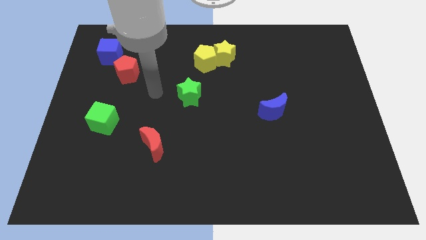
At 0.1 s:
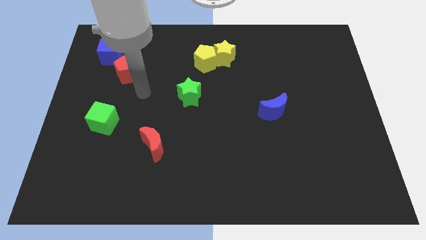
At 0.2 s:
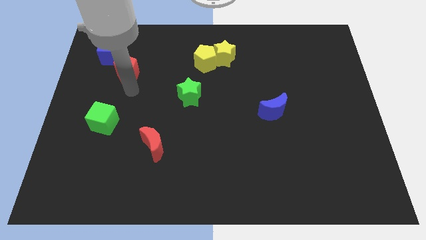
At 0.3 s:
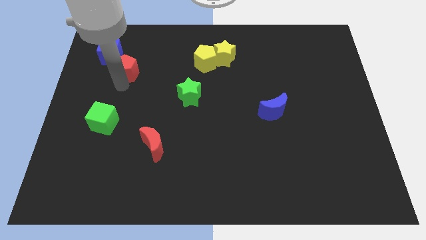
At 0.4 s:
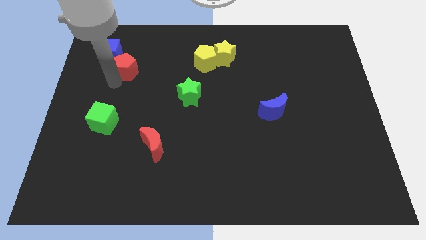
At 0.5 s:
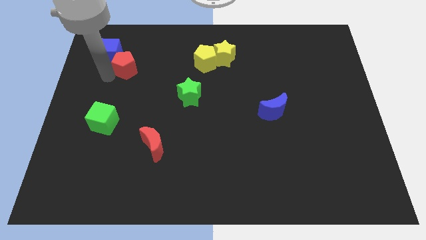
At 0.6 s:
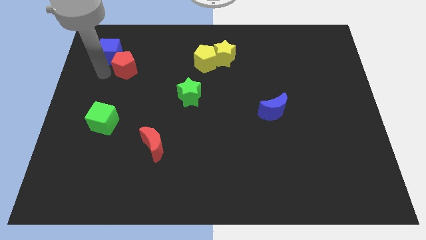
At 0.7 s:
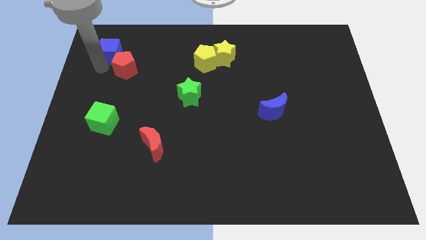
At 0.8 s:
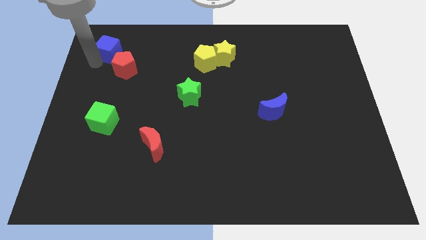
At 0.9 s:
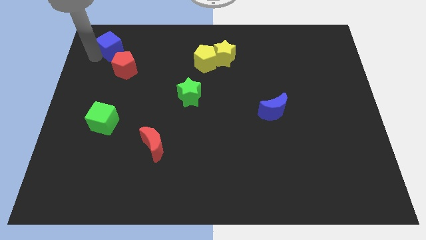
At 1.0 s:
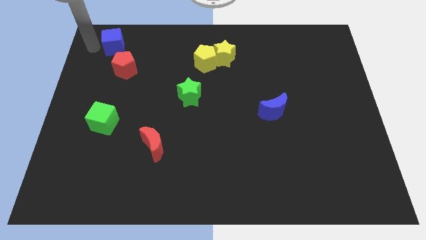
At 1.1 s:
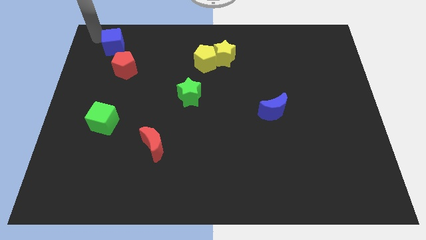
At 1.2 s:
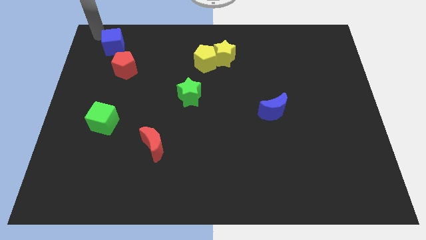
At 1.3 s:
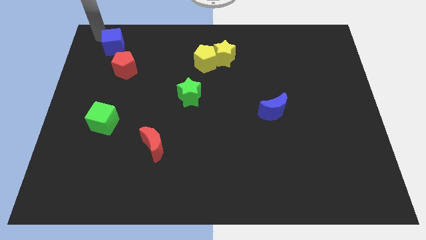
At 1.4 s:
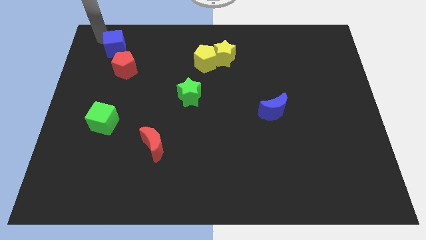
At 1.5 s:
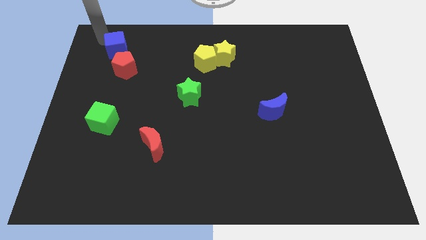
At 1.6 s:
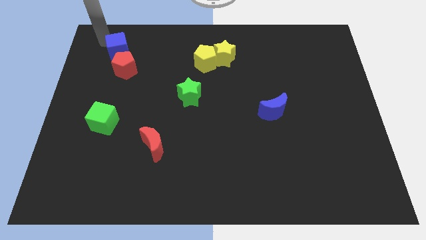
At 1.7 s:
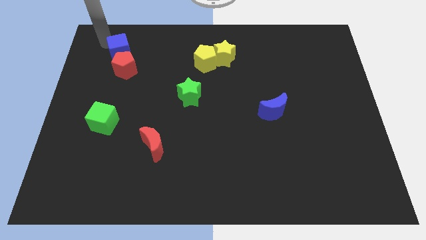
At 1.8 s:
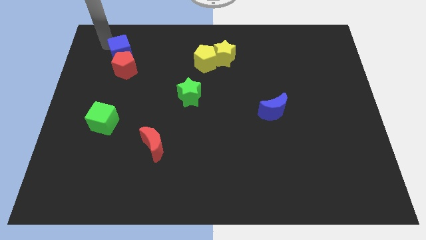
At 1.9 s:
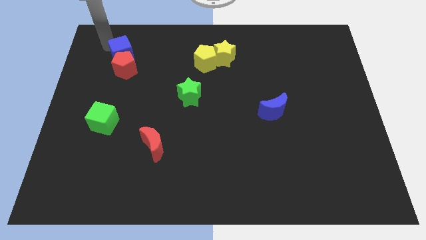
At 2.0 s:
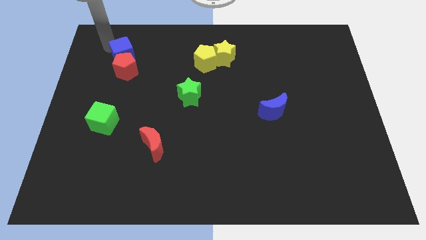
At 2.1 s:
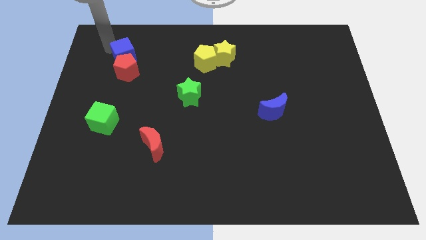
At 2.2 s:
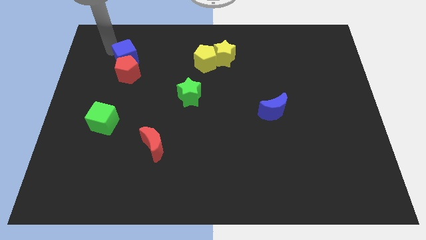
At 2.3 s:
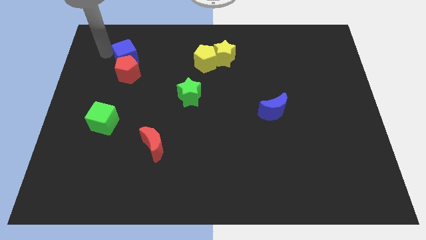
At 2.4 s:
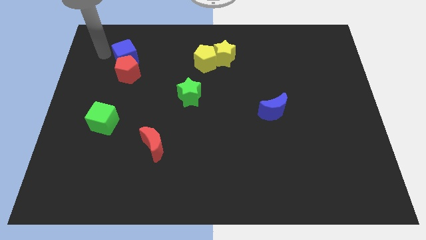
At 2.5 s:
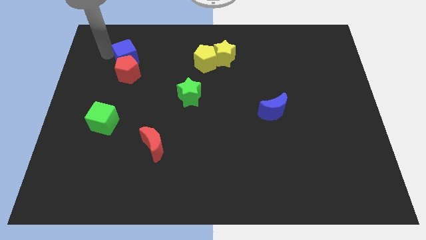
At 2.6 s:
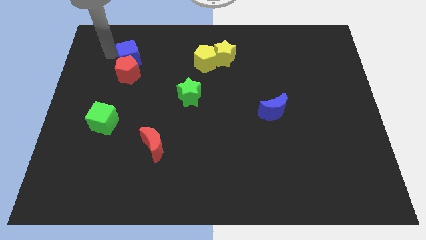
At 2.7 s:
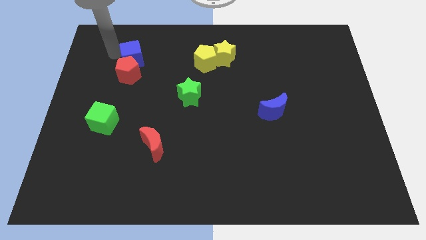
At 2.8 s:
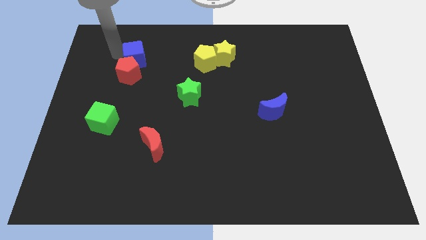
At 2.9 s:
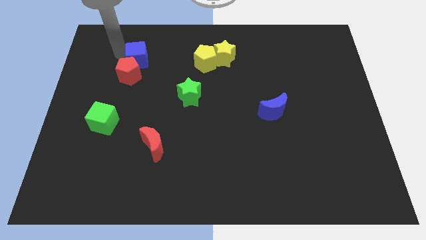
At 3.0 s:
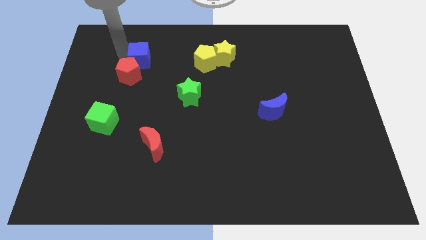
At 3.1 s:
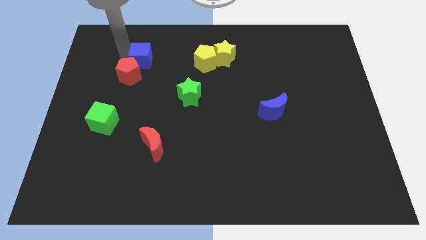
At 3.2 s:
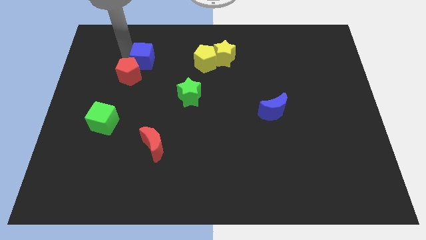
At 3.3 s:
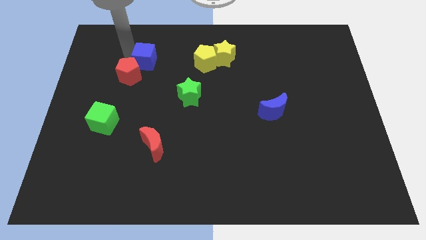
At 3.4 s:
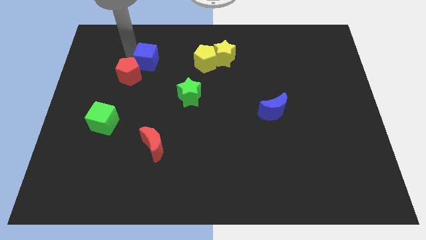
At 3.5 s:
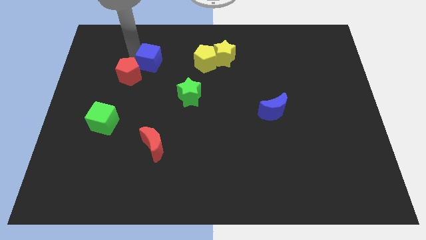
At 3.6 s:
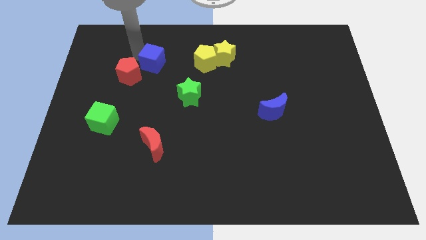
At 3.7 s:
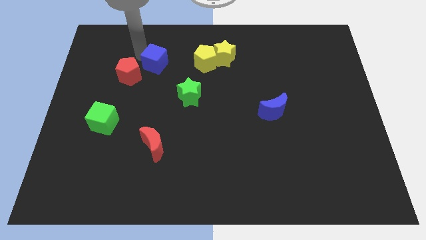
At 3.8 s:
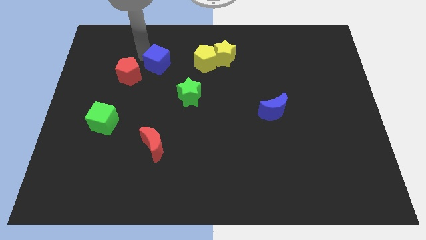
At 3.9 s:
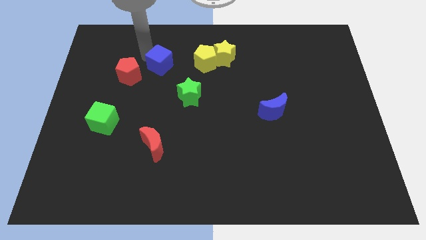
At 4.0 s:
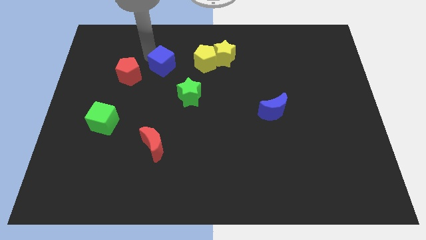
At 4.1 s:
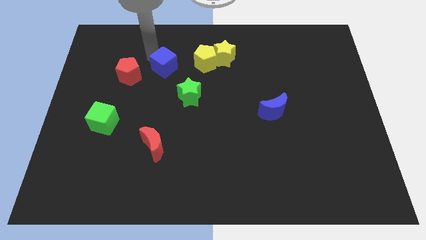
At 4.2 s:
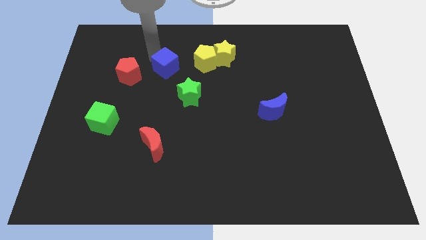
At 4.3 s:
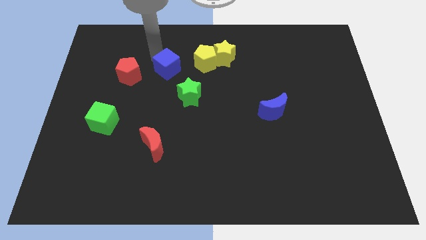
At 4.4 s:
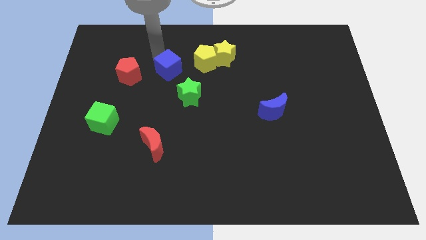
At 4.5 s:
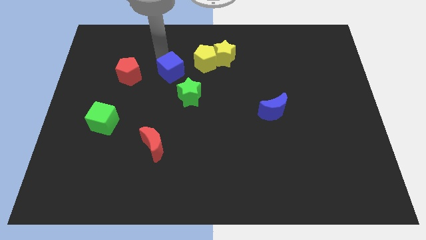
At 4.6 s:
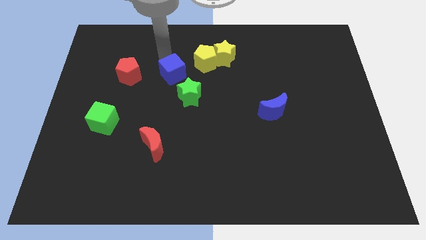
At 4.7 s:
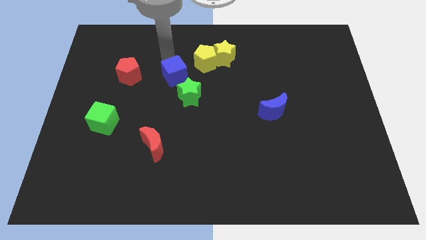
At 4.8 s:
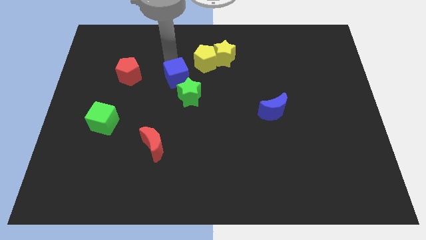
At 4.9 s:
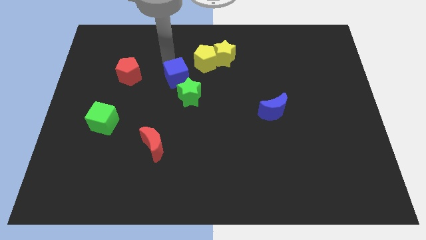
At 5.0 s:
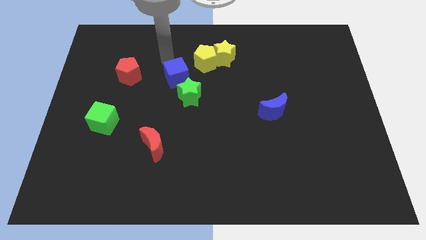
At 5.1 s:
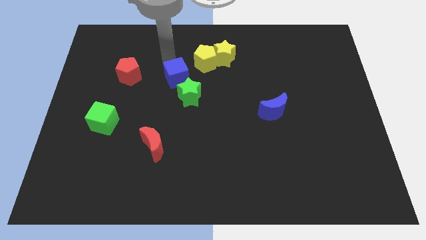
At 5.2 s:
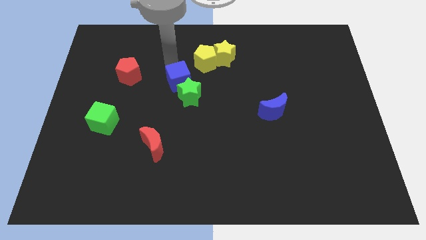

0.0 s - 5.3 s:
move the blue cube to the green star

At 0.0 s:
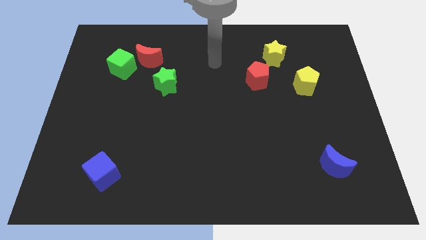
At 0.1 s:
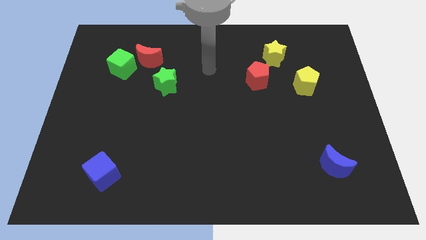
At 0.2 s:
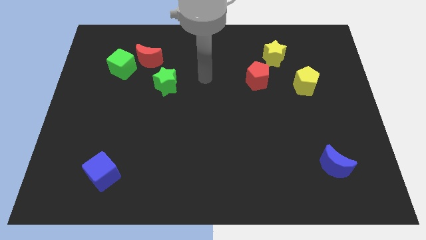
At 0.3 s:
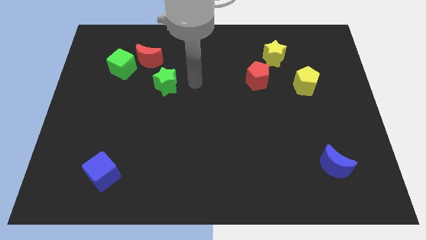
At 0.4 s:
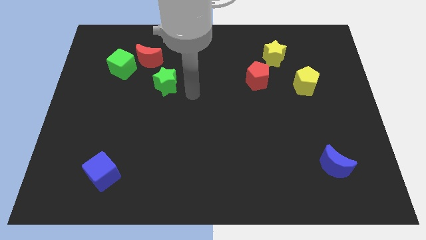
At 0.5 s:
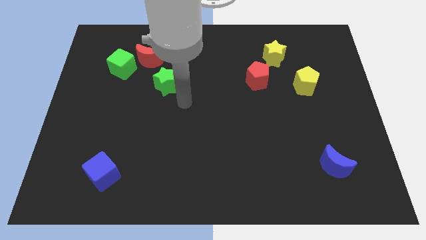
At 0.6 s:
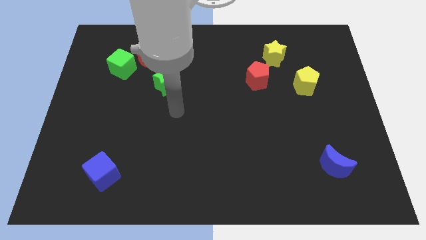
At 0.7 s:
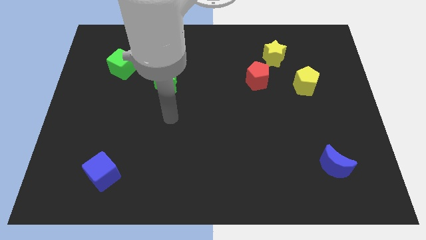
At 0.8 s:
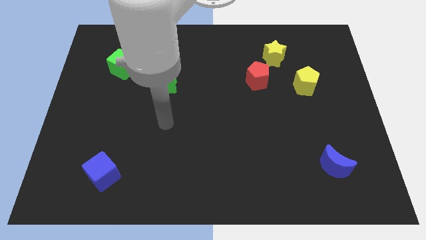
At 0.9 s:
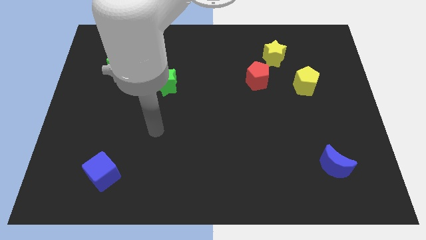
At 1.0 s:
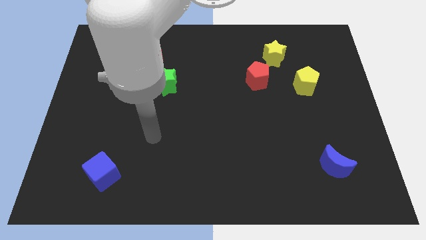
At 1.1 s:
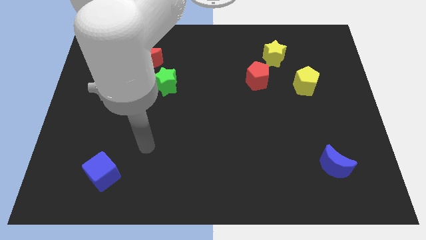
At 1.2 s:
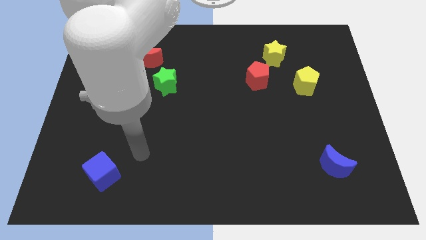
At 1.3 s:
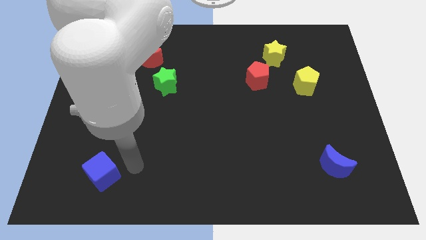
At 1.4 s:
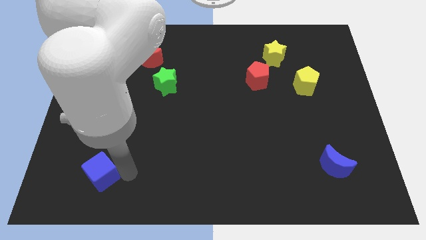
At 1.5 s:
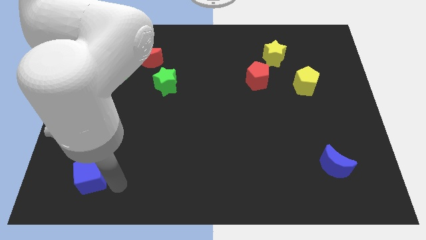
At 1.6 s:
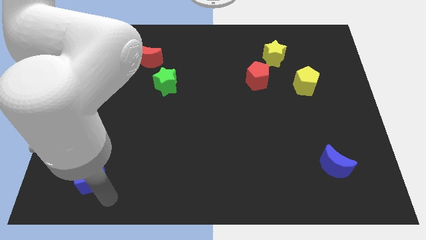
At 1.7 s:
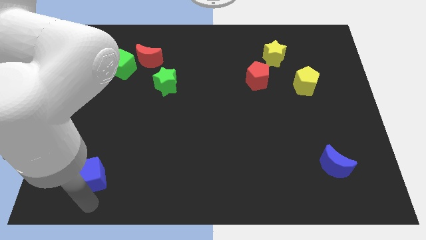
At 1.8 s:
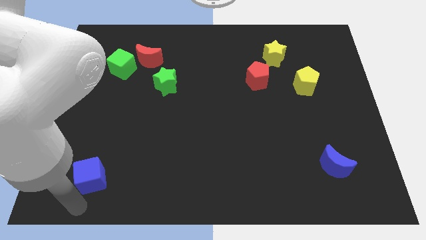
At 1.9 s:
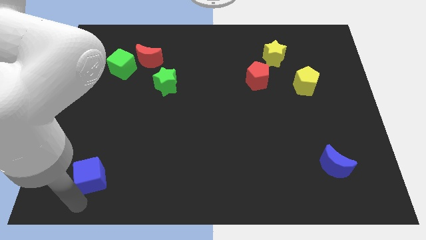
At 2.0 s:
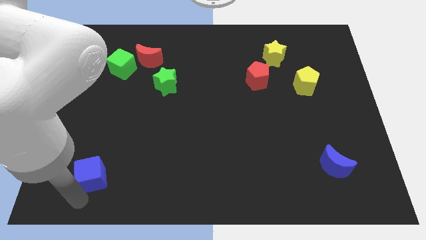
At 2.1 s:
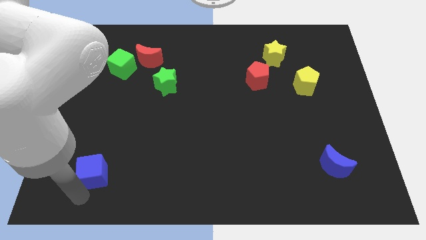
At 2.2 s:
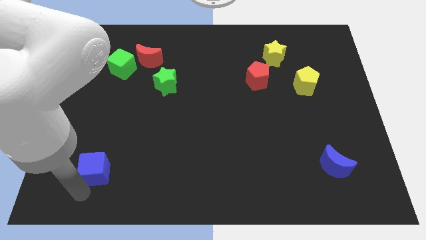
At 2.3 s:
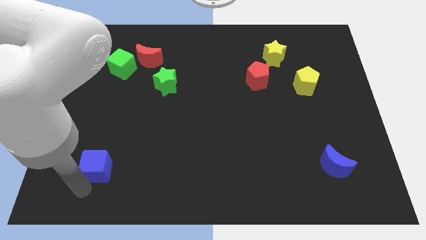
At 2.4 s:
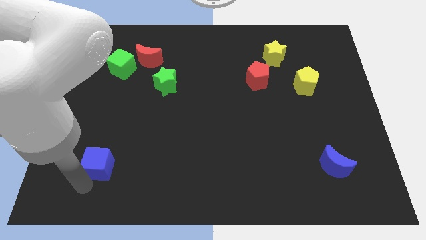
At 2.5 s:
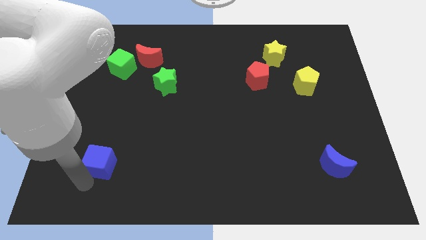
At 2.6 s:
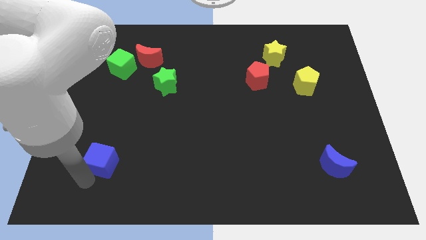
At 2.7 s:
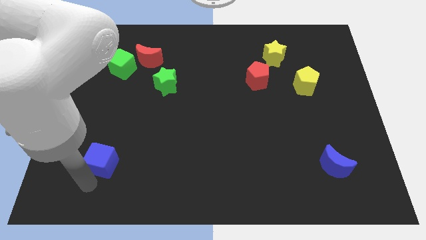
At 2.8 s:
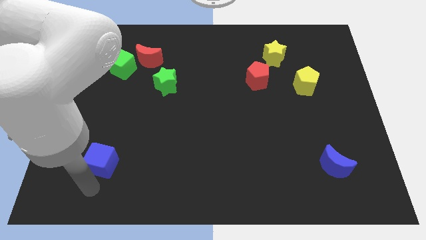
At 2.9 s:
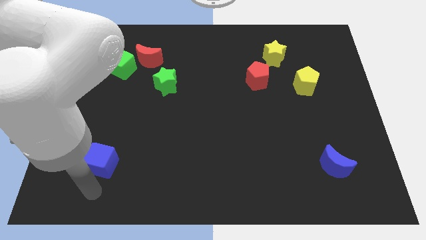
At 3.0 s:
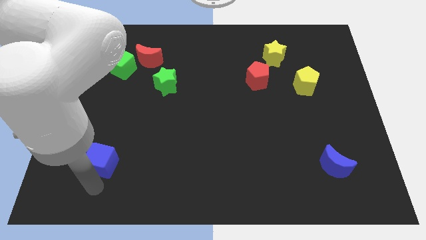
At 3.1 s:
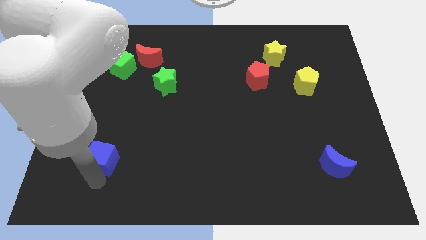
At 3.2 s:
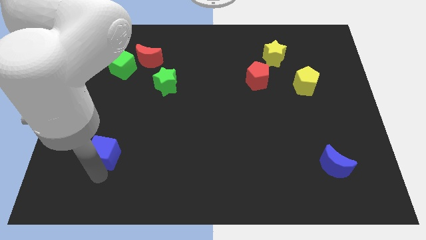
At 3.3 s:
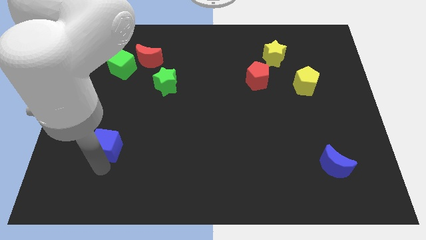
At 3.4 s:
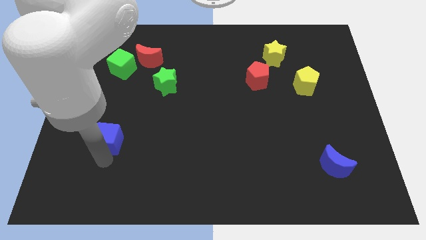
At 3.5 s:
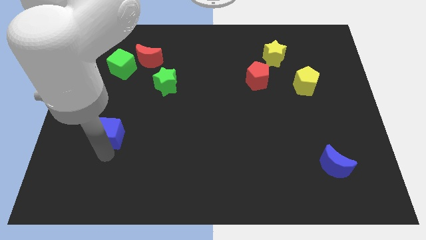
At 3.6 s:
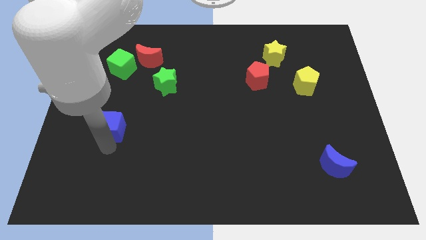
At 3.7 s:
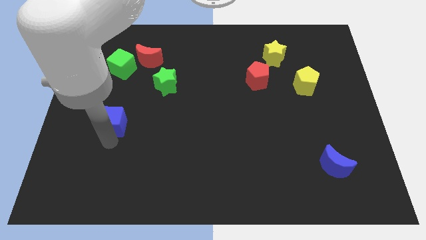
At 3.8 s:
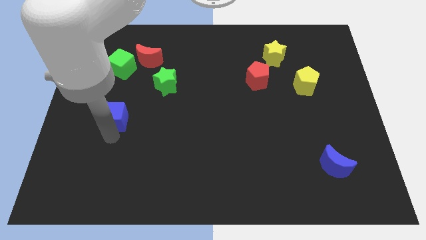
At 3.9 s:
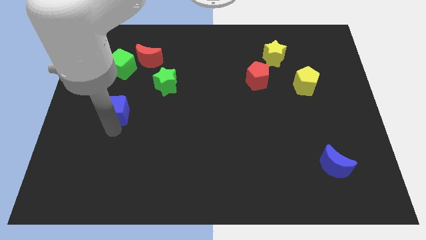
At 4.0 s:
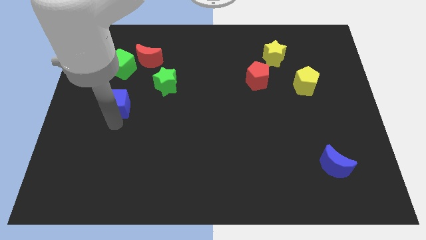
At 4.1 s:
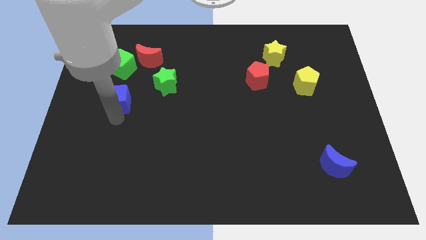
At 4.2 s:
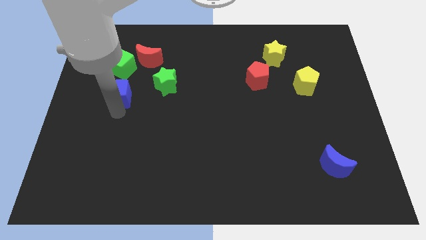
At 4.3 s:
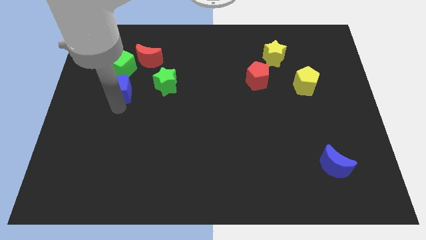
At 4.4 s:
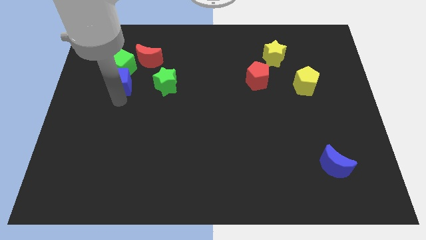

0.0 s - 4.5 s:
push the blue cube to the green cube
